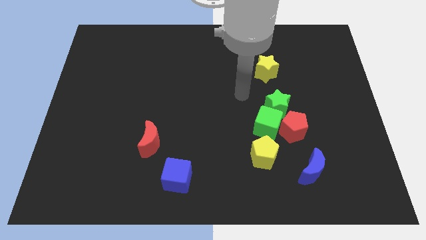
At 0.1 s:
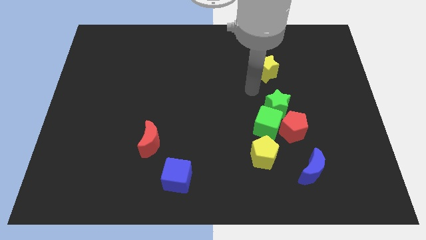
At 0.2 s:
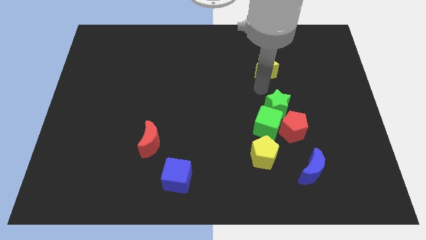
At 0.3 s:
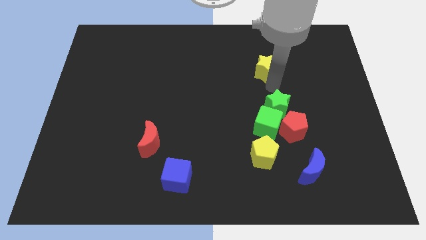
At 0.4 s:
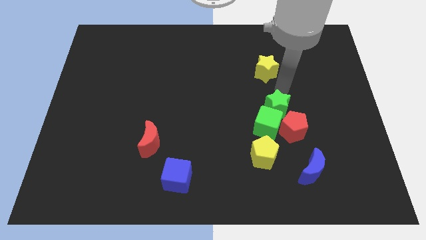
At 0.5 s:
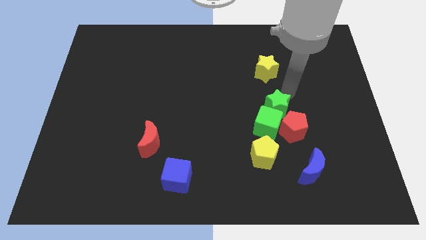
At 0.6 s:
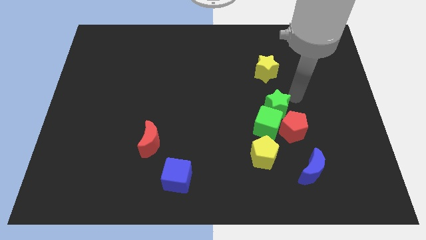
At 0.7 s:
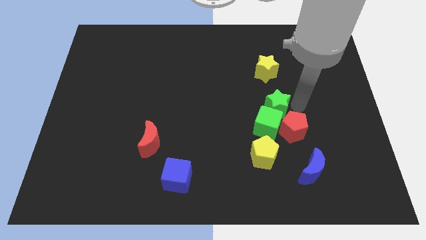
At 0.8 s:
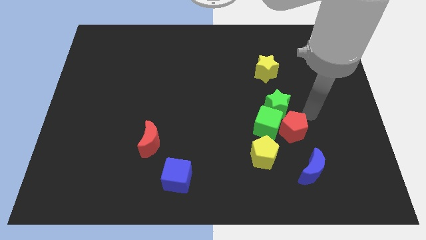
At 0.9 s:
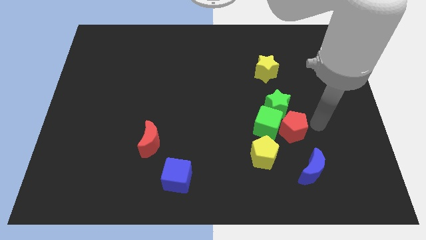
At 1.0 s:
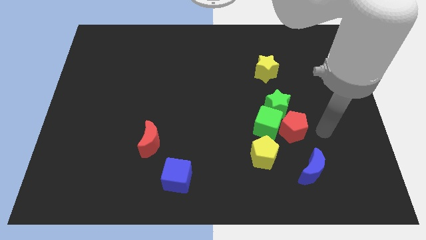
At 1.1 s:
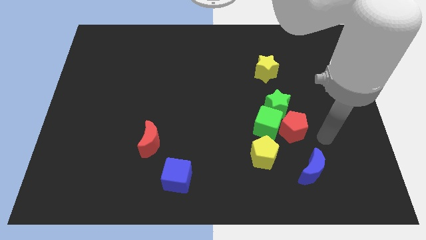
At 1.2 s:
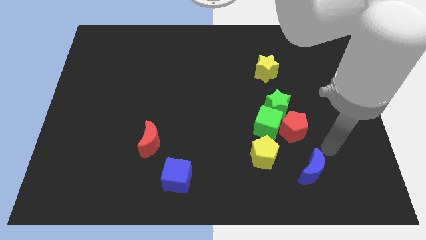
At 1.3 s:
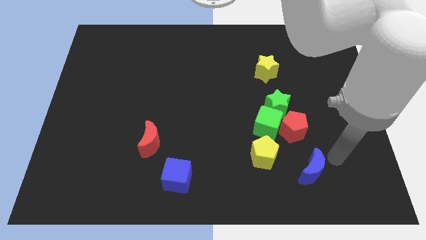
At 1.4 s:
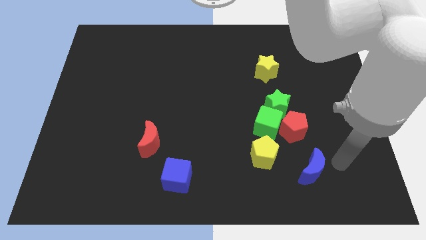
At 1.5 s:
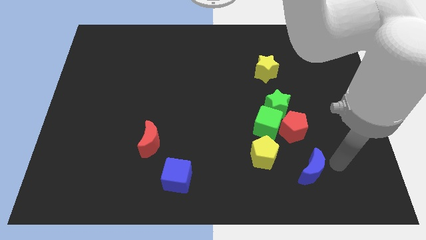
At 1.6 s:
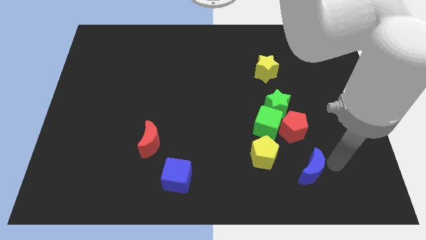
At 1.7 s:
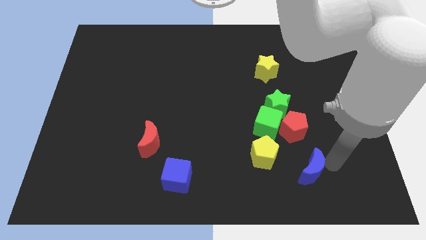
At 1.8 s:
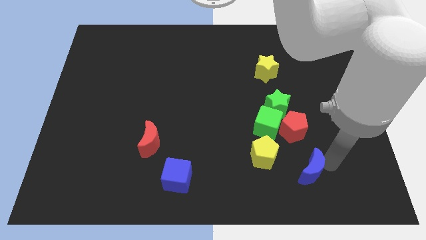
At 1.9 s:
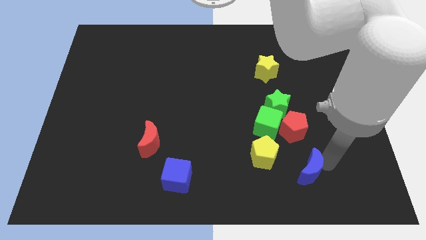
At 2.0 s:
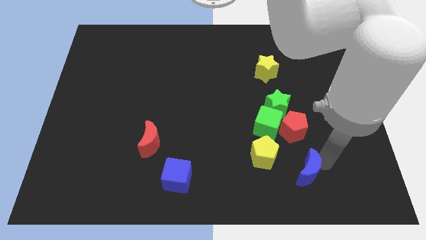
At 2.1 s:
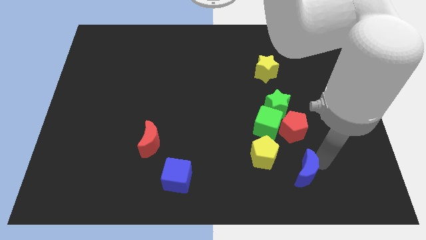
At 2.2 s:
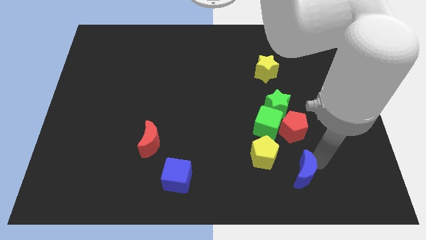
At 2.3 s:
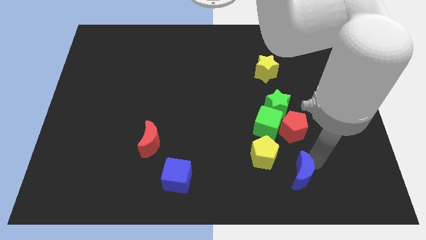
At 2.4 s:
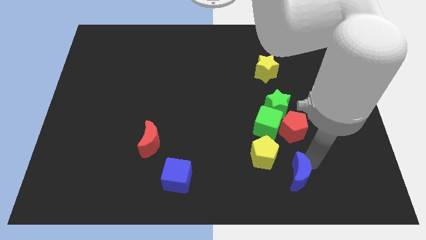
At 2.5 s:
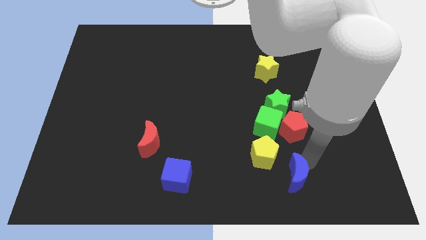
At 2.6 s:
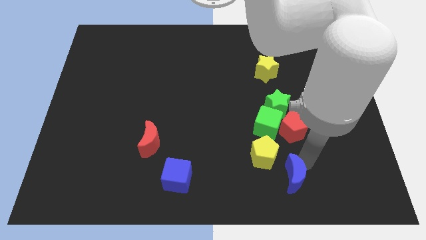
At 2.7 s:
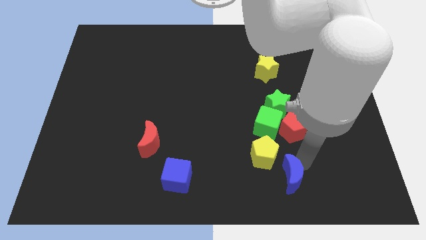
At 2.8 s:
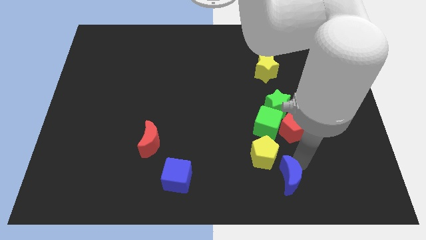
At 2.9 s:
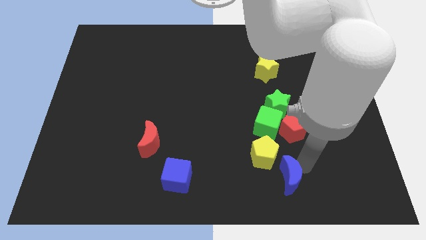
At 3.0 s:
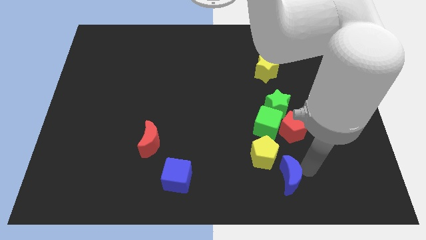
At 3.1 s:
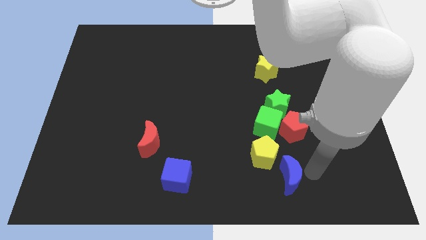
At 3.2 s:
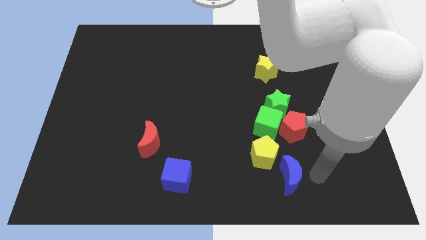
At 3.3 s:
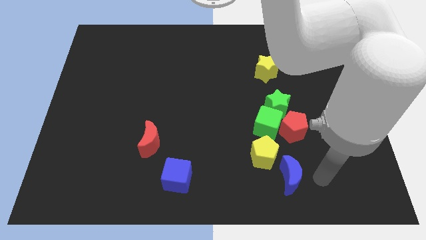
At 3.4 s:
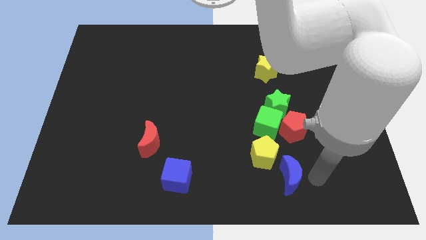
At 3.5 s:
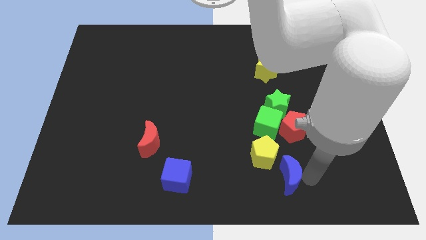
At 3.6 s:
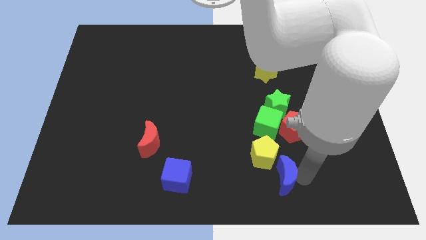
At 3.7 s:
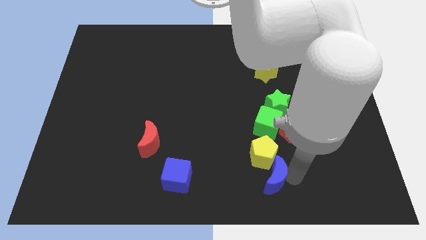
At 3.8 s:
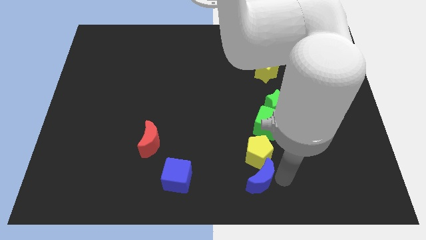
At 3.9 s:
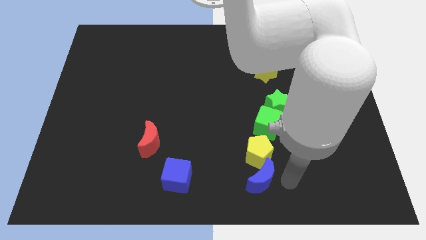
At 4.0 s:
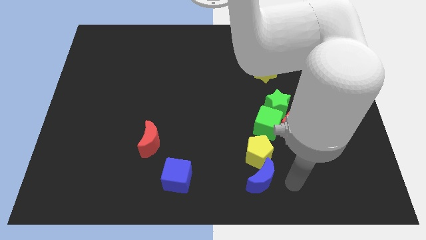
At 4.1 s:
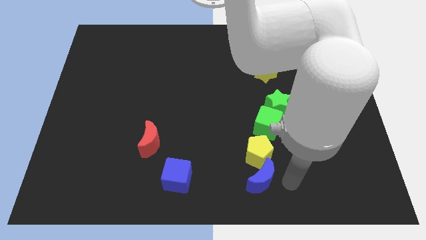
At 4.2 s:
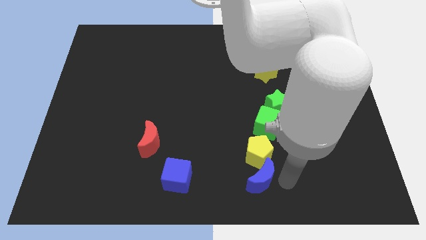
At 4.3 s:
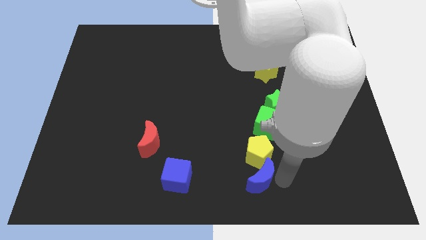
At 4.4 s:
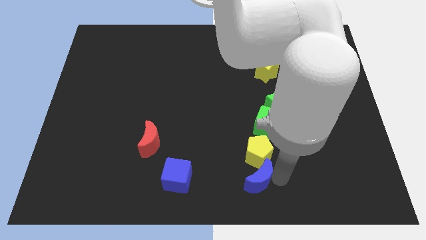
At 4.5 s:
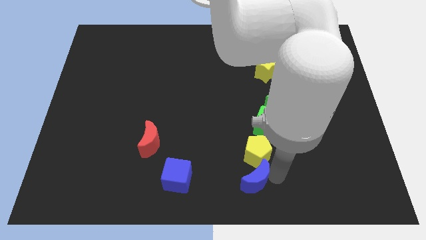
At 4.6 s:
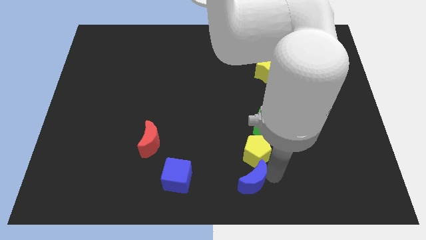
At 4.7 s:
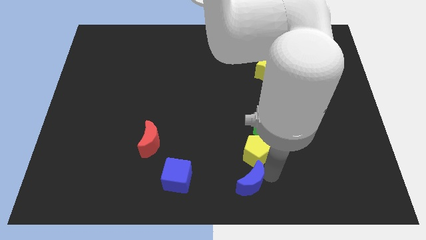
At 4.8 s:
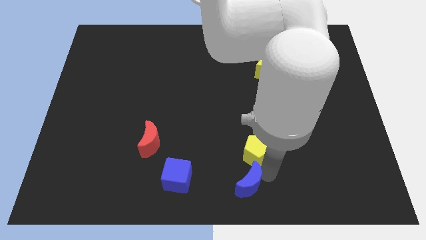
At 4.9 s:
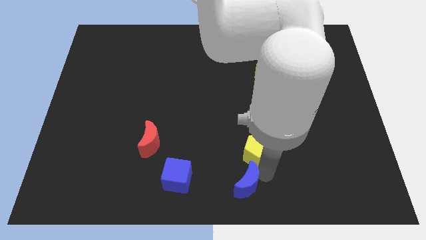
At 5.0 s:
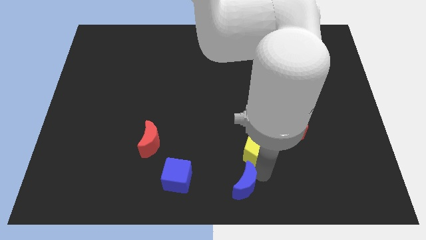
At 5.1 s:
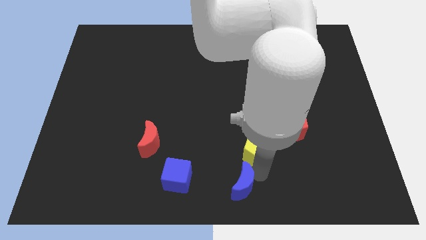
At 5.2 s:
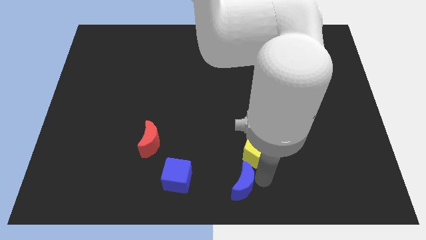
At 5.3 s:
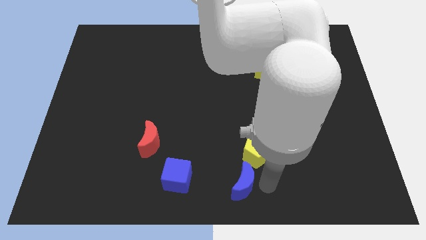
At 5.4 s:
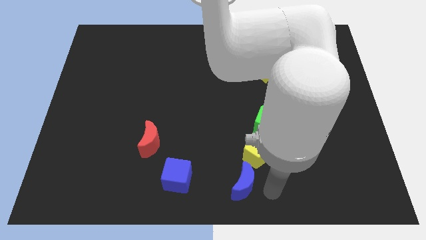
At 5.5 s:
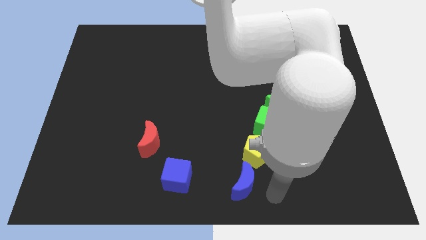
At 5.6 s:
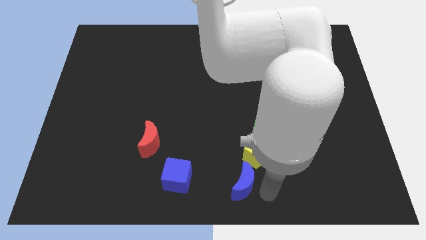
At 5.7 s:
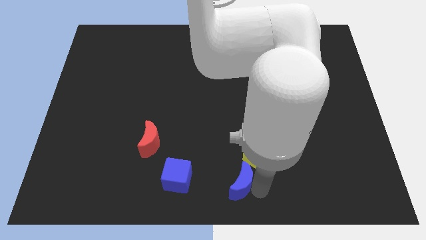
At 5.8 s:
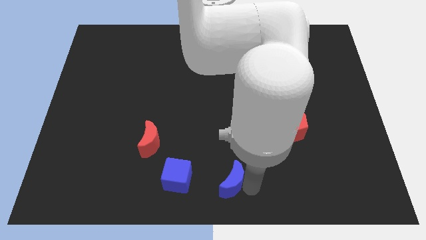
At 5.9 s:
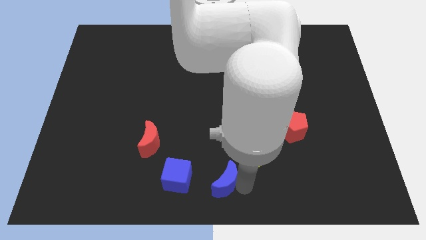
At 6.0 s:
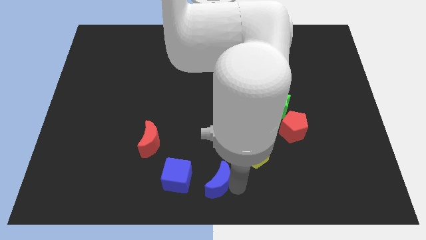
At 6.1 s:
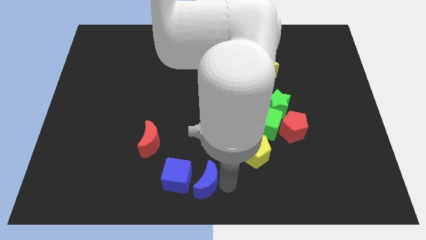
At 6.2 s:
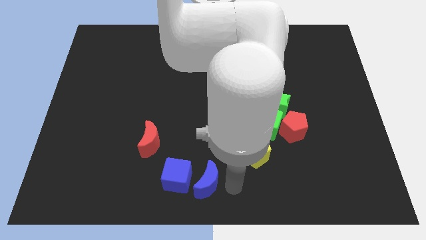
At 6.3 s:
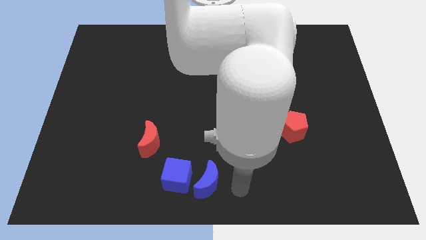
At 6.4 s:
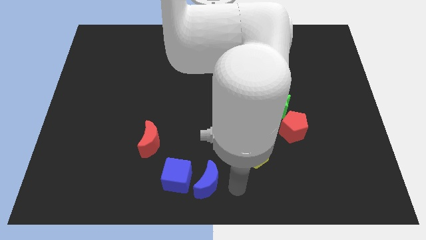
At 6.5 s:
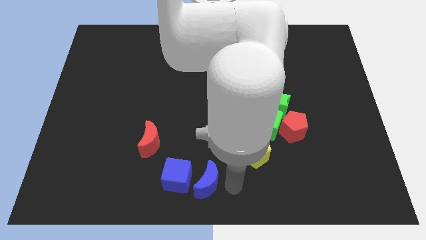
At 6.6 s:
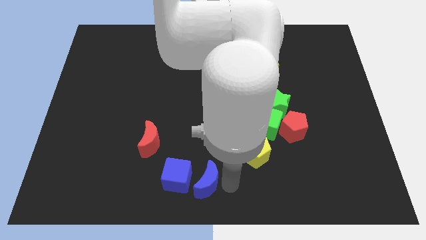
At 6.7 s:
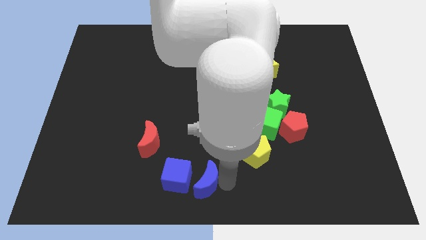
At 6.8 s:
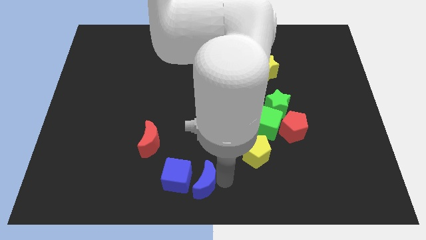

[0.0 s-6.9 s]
put the blue moon towards the blue cube

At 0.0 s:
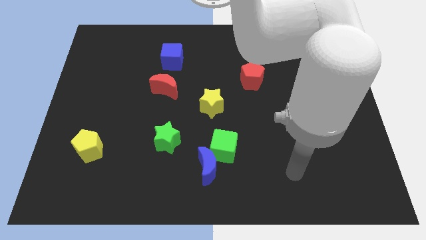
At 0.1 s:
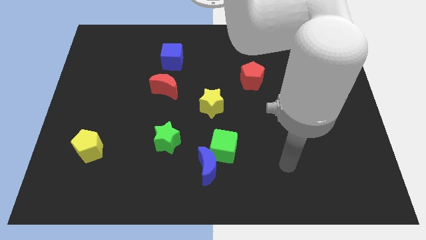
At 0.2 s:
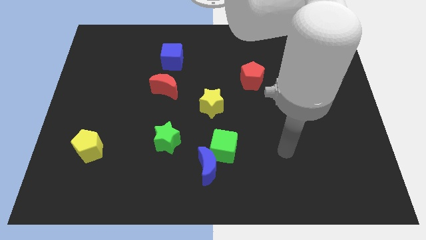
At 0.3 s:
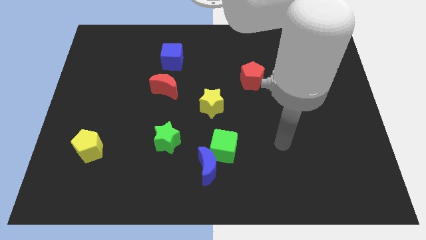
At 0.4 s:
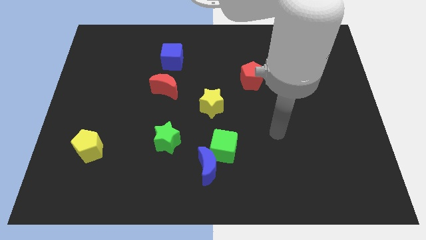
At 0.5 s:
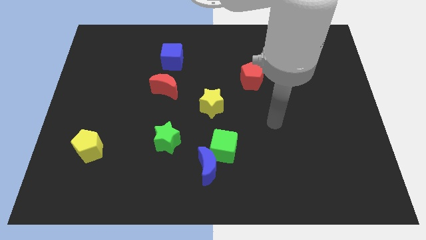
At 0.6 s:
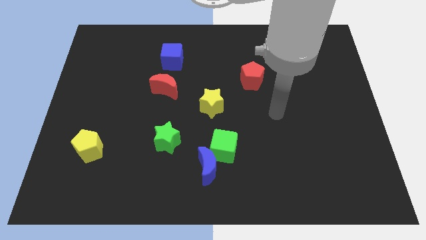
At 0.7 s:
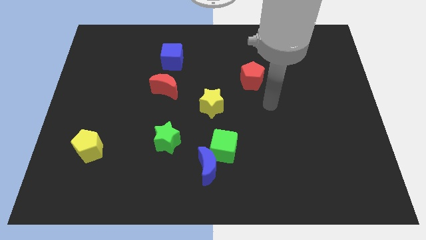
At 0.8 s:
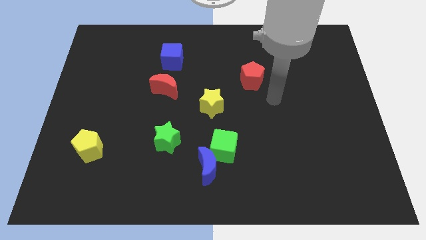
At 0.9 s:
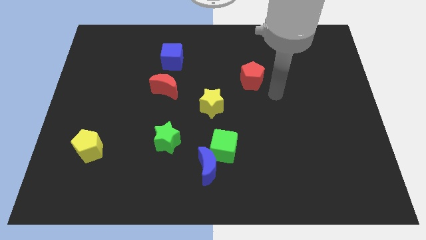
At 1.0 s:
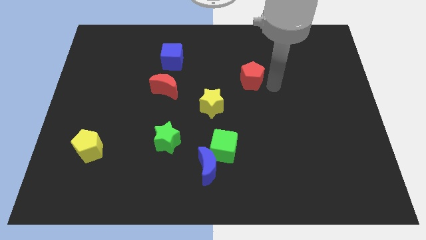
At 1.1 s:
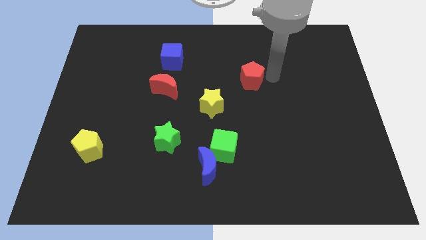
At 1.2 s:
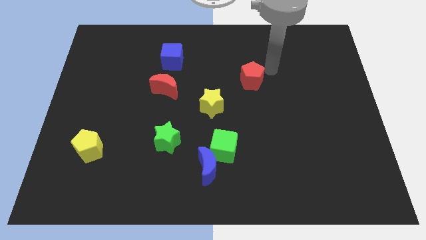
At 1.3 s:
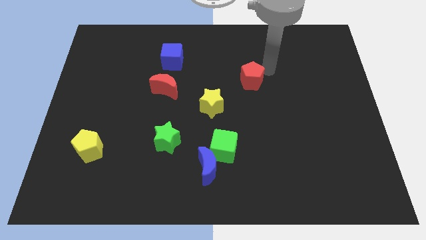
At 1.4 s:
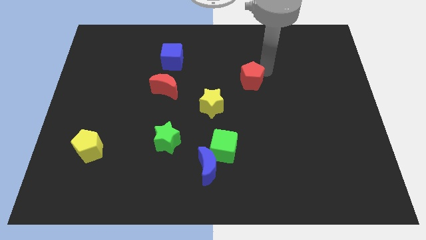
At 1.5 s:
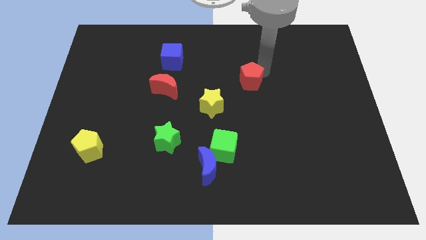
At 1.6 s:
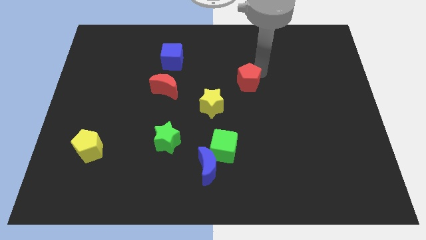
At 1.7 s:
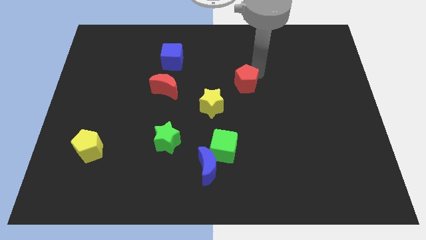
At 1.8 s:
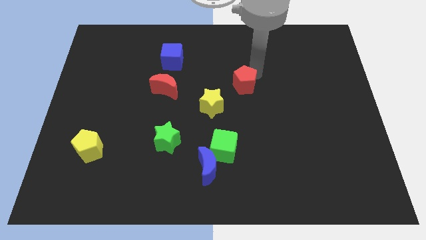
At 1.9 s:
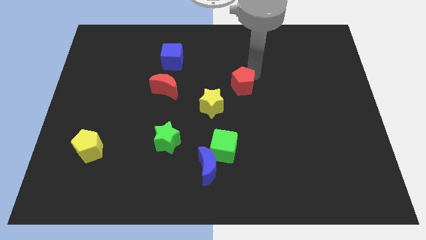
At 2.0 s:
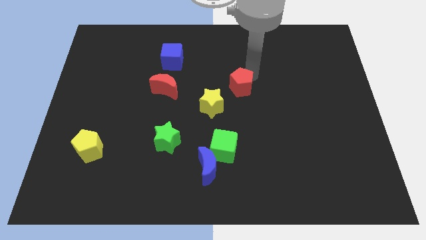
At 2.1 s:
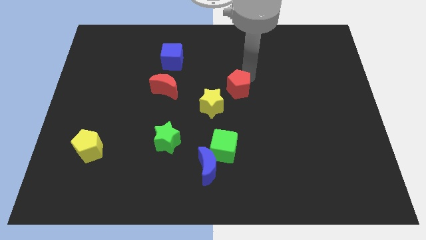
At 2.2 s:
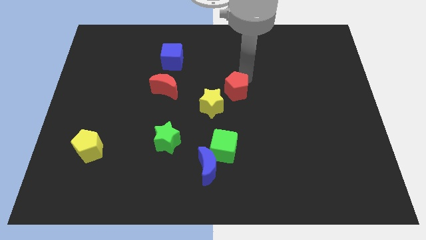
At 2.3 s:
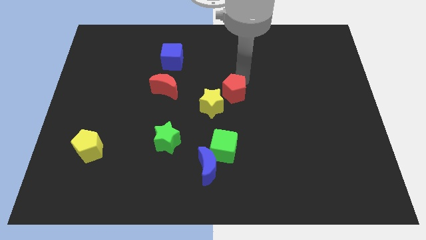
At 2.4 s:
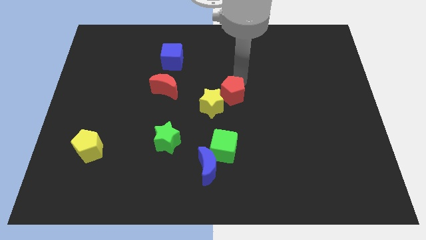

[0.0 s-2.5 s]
push the red pentagon to the yellow star
